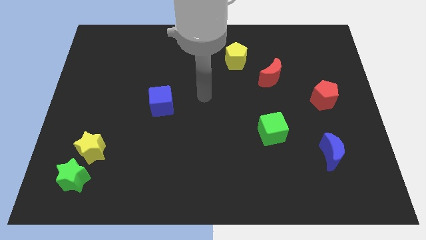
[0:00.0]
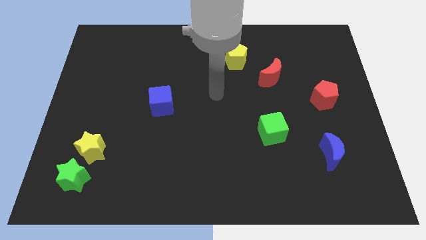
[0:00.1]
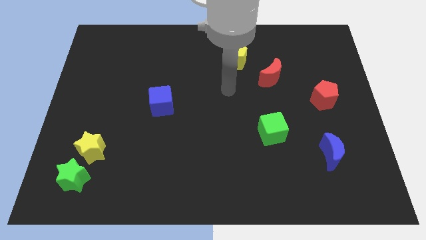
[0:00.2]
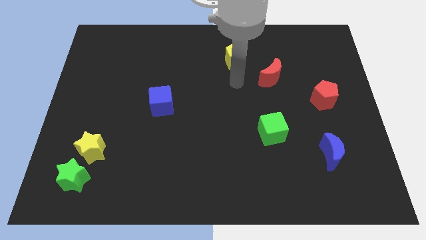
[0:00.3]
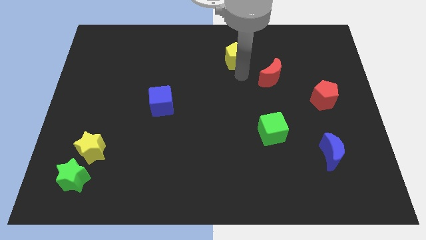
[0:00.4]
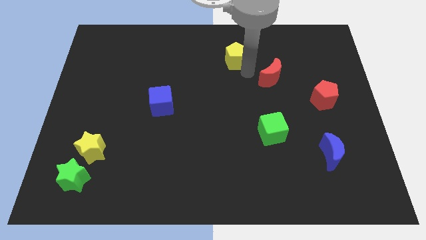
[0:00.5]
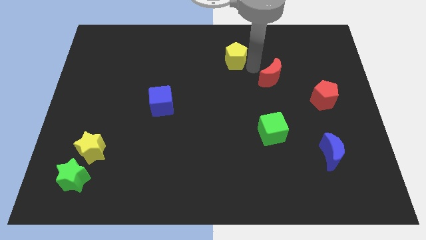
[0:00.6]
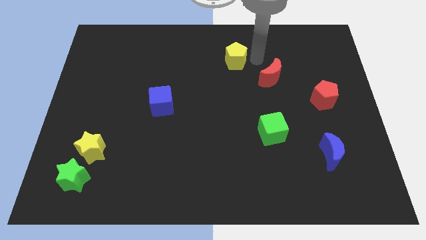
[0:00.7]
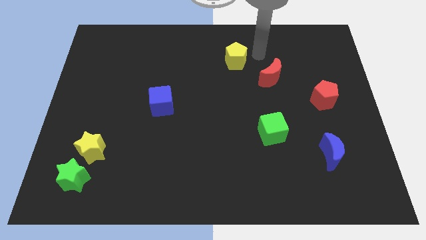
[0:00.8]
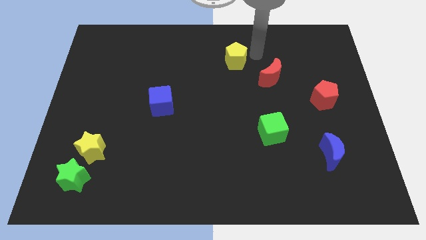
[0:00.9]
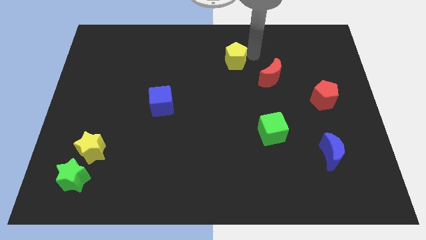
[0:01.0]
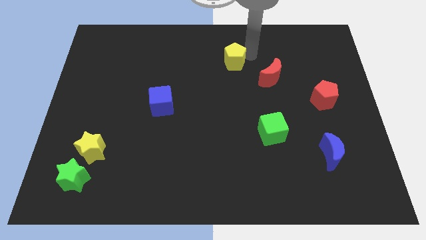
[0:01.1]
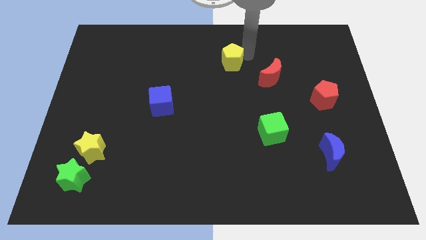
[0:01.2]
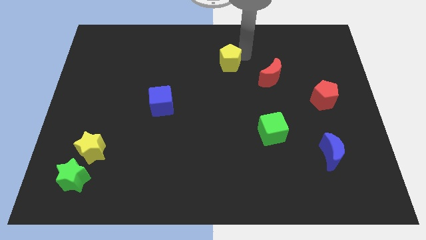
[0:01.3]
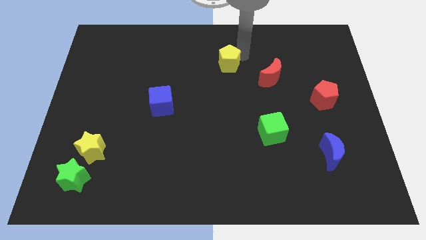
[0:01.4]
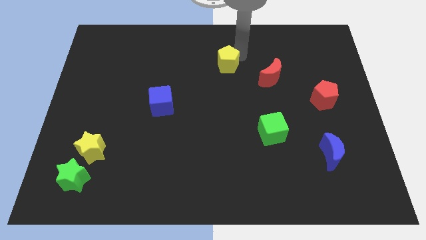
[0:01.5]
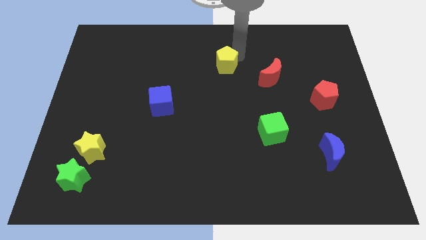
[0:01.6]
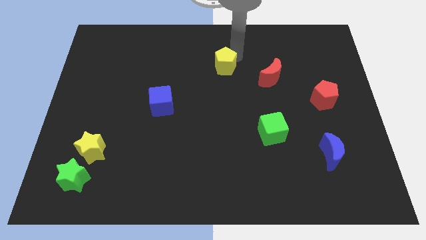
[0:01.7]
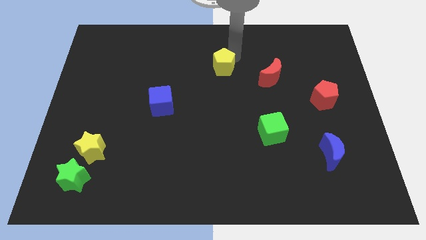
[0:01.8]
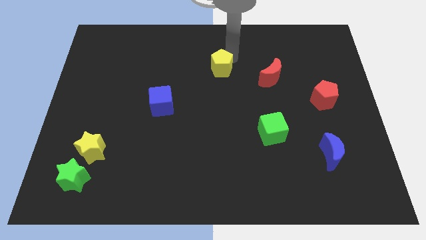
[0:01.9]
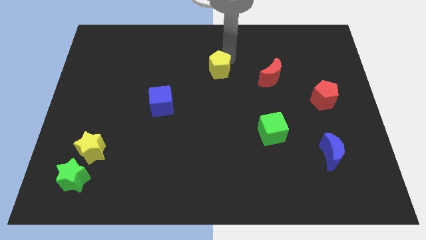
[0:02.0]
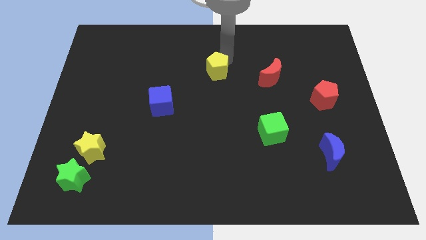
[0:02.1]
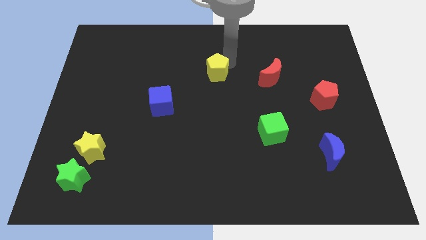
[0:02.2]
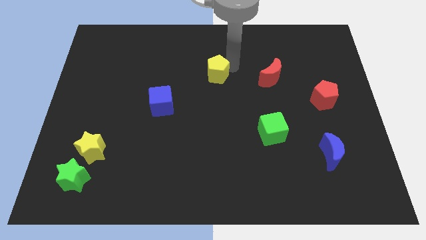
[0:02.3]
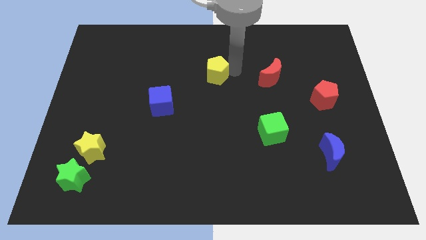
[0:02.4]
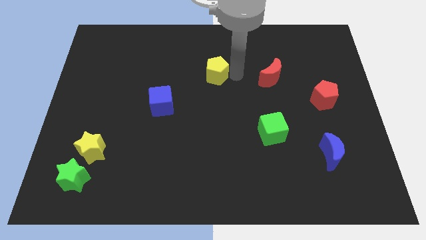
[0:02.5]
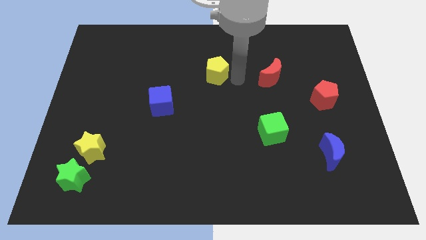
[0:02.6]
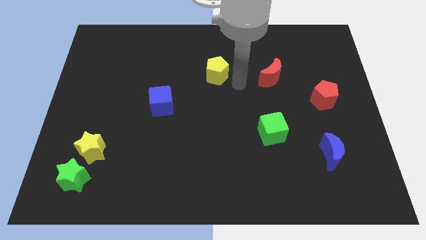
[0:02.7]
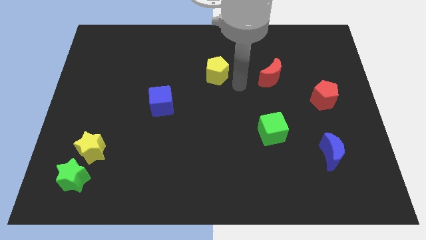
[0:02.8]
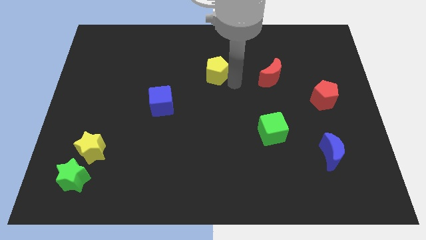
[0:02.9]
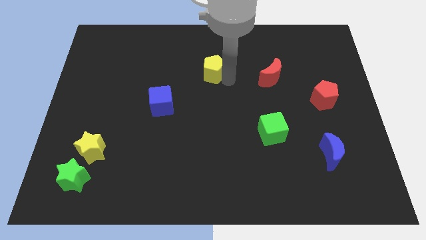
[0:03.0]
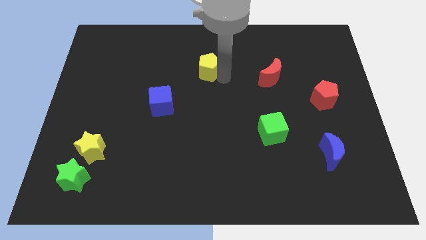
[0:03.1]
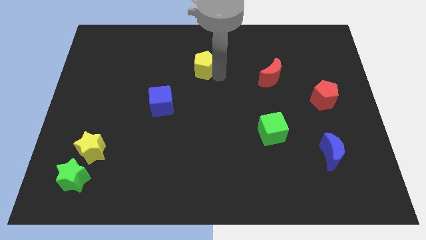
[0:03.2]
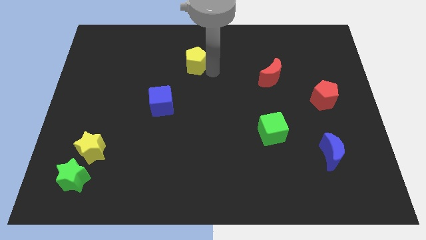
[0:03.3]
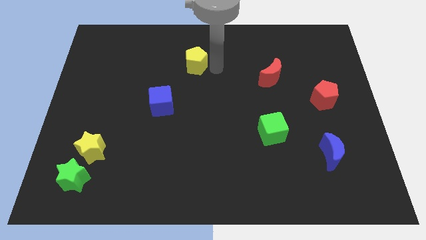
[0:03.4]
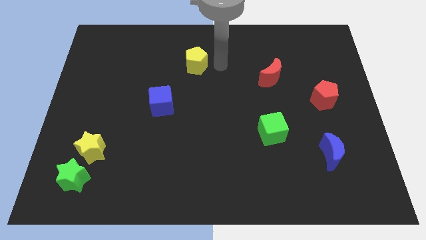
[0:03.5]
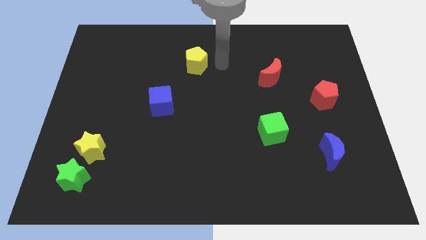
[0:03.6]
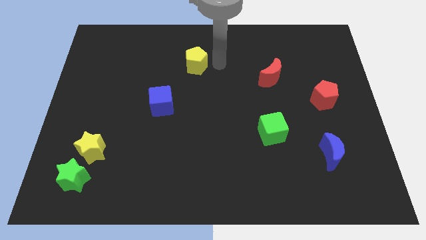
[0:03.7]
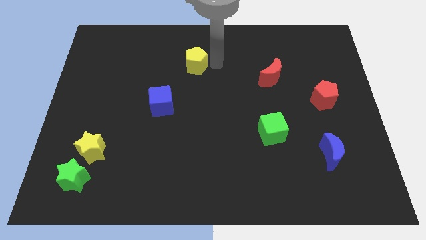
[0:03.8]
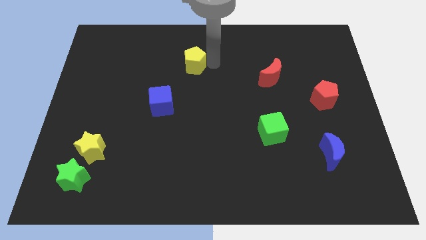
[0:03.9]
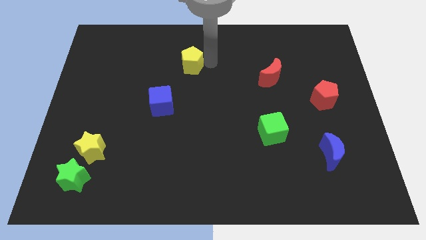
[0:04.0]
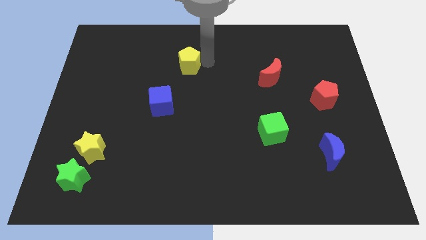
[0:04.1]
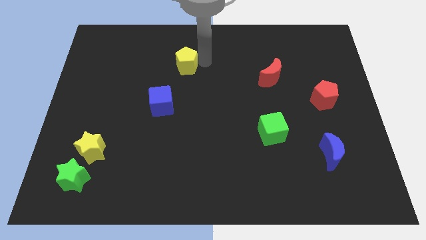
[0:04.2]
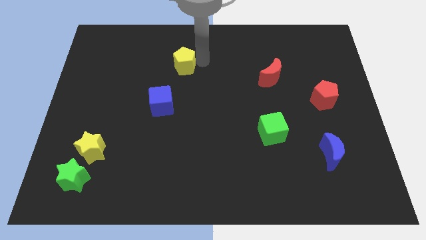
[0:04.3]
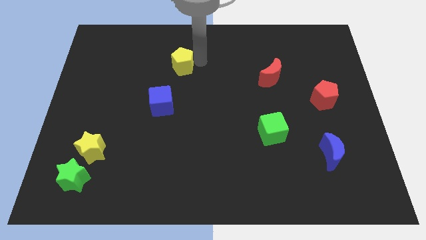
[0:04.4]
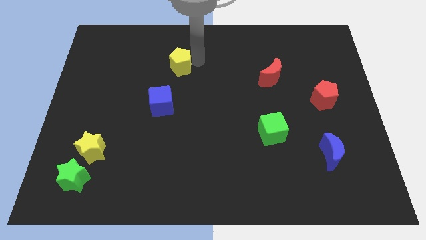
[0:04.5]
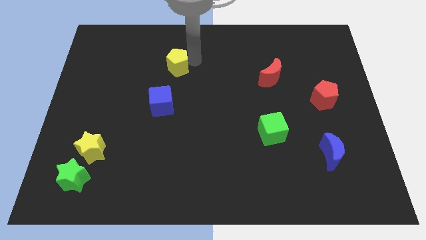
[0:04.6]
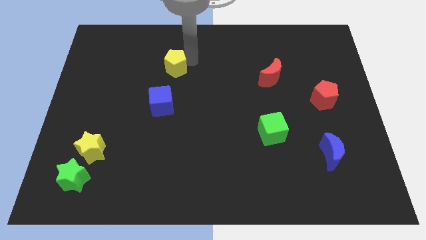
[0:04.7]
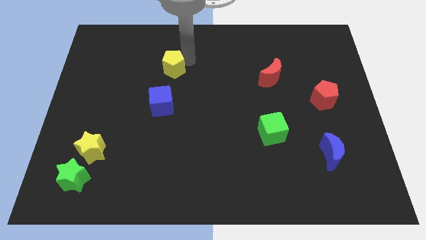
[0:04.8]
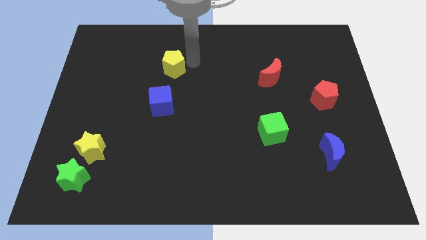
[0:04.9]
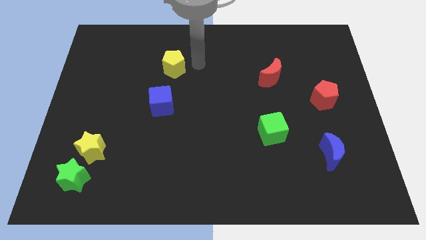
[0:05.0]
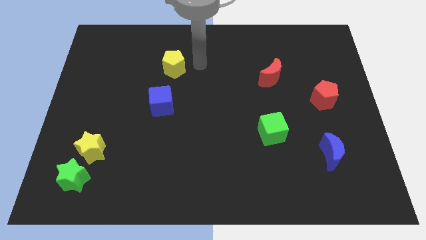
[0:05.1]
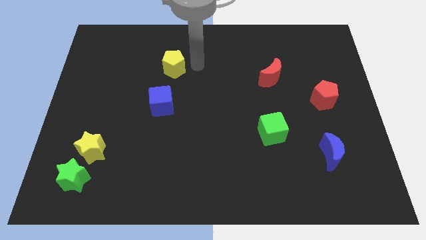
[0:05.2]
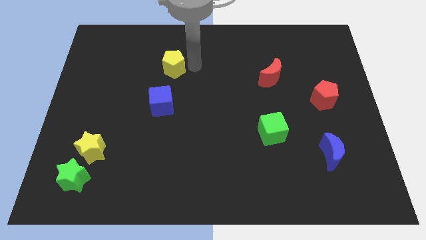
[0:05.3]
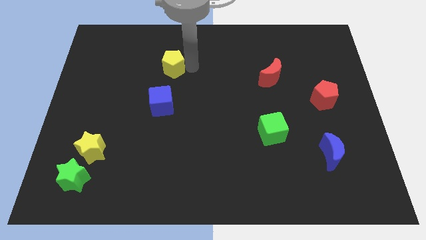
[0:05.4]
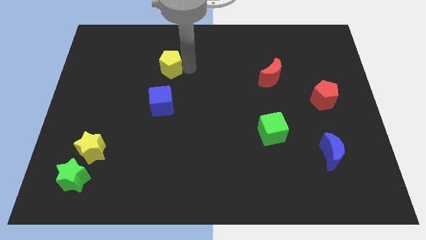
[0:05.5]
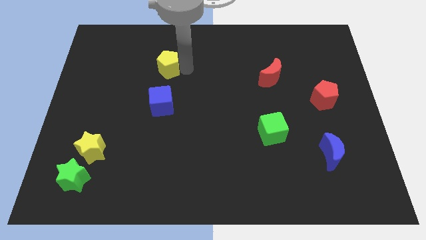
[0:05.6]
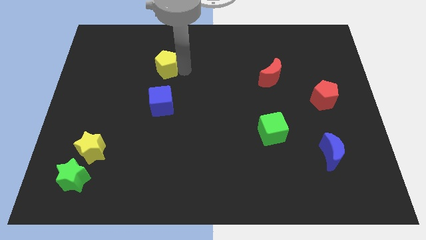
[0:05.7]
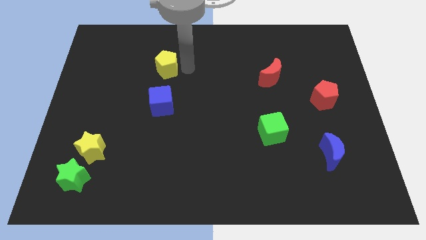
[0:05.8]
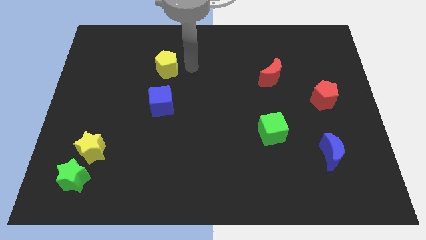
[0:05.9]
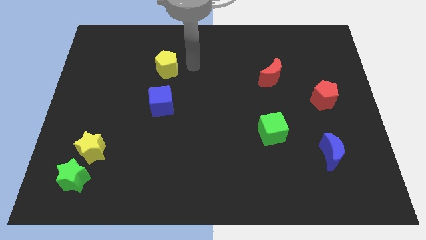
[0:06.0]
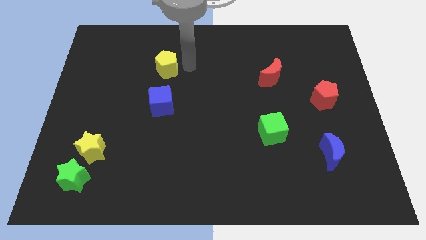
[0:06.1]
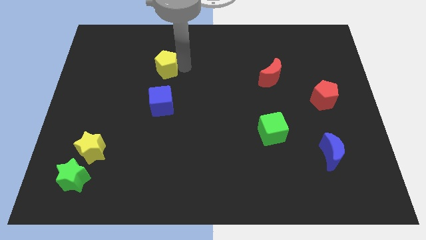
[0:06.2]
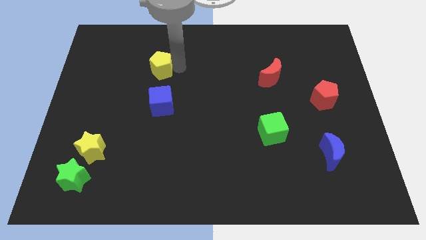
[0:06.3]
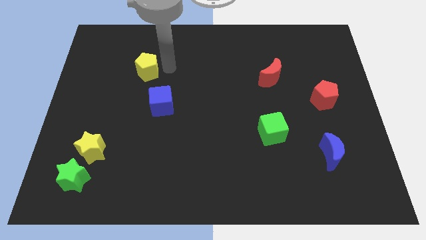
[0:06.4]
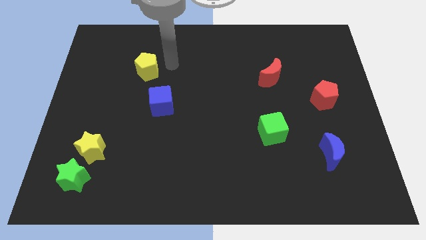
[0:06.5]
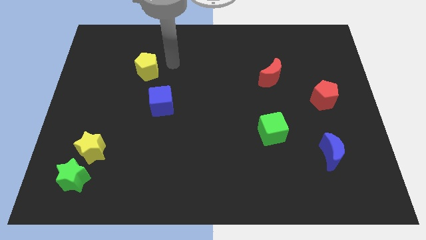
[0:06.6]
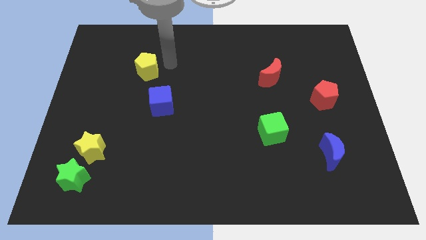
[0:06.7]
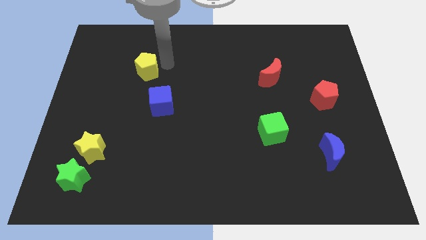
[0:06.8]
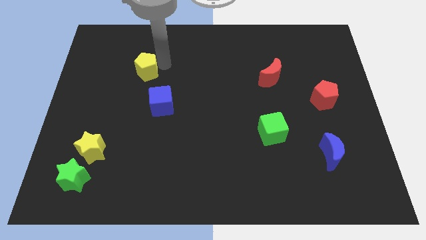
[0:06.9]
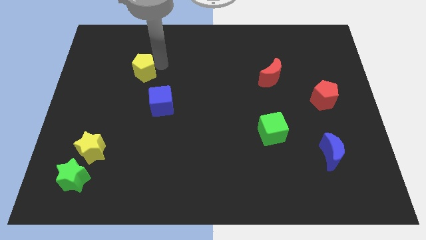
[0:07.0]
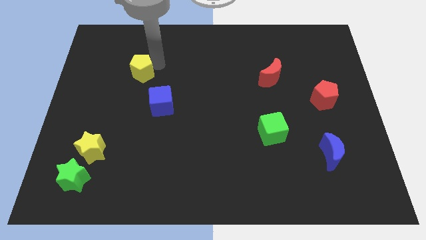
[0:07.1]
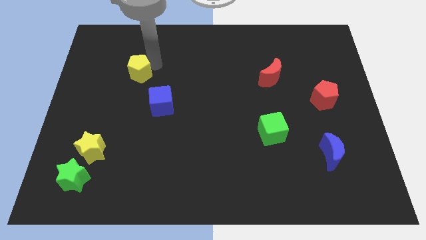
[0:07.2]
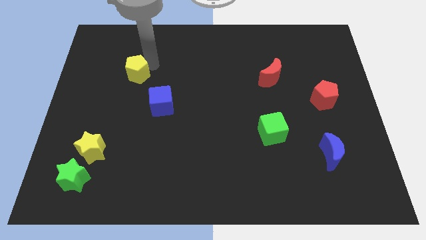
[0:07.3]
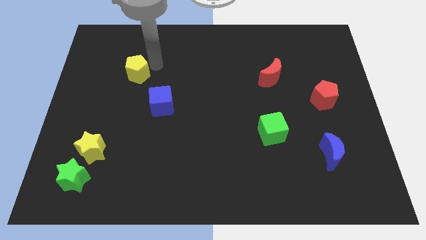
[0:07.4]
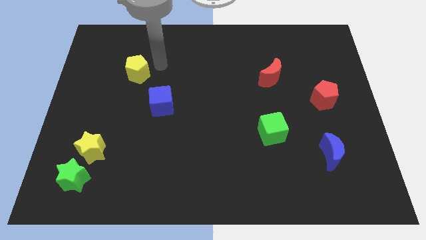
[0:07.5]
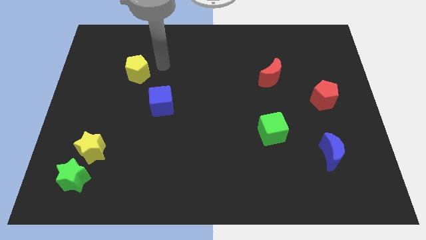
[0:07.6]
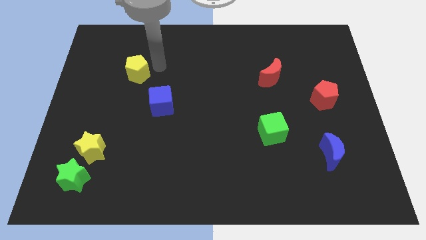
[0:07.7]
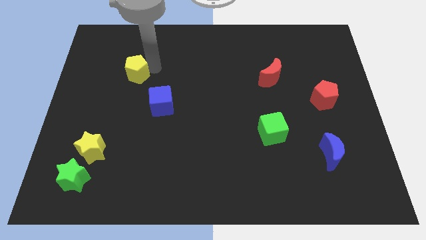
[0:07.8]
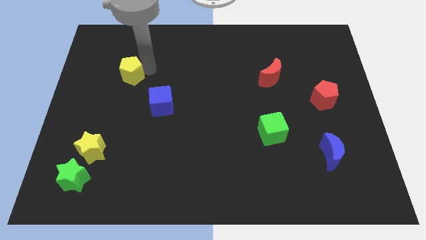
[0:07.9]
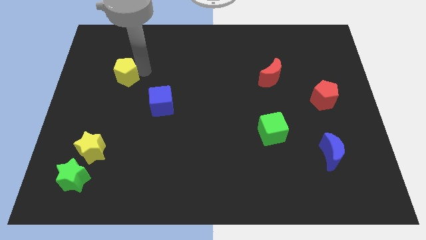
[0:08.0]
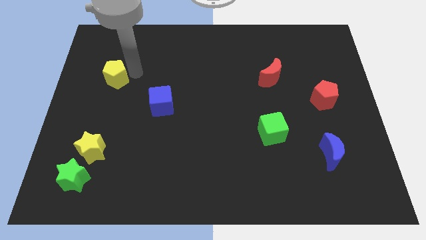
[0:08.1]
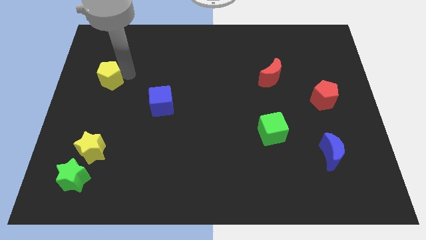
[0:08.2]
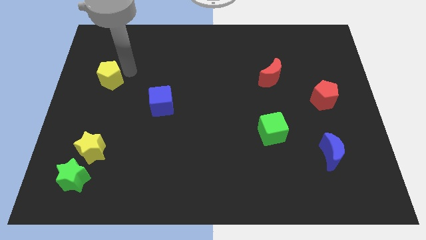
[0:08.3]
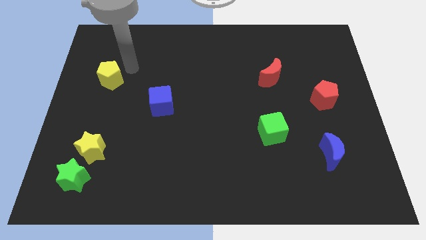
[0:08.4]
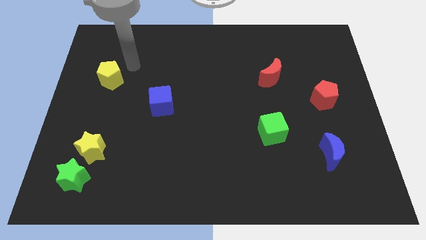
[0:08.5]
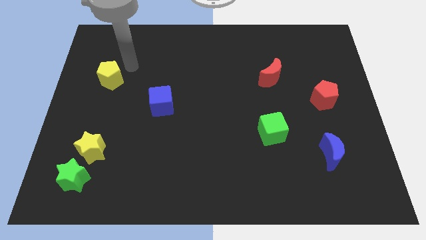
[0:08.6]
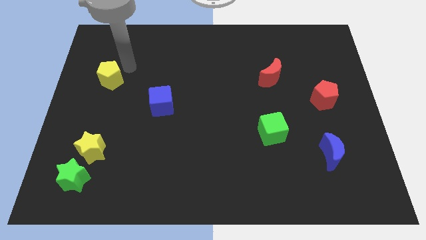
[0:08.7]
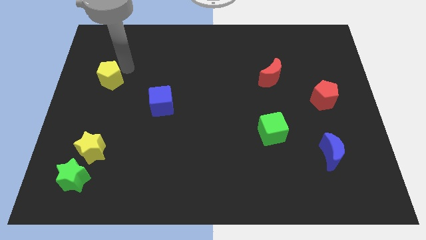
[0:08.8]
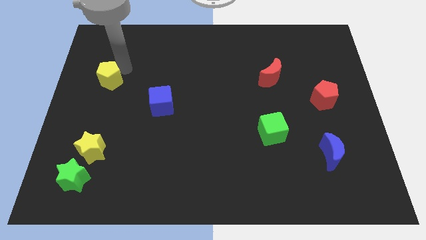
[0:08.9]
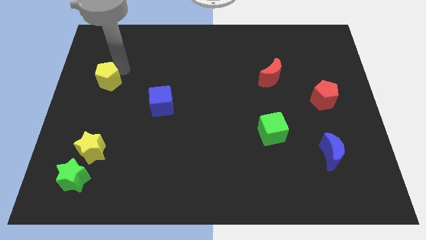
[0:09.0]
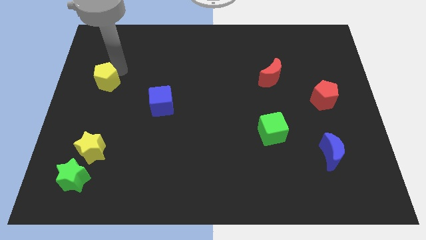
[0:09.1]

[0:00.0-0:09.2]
push the yellow pentagon to the left side
